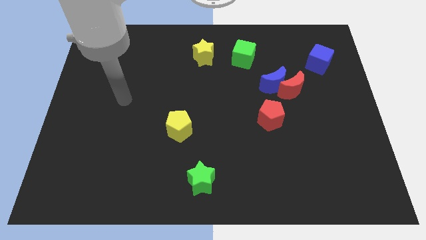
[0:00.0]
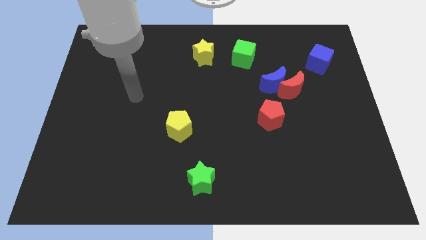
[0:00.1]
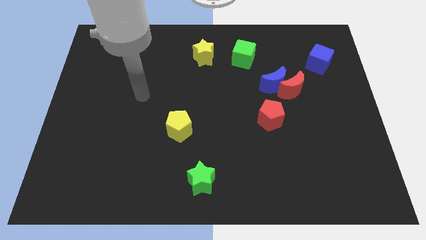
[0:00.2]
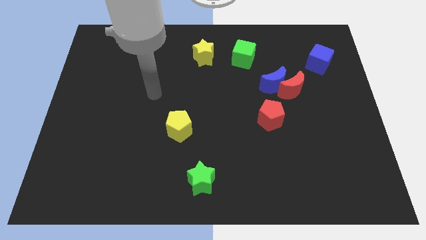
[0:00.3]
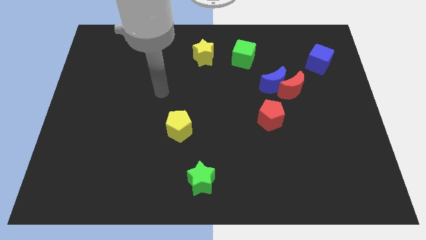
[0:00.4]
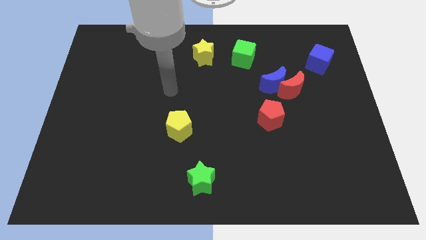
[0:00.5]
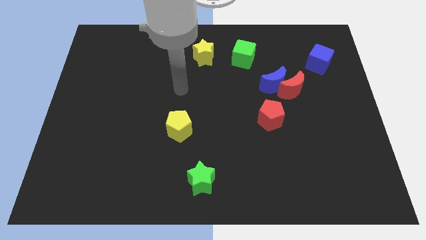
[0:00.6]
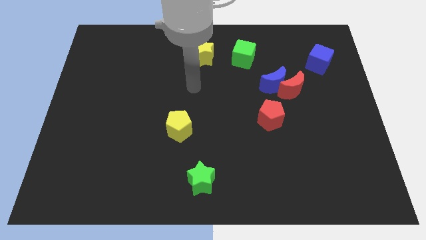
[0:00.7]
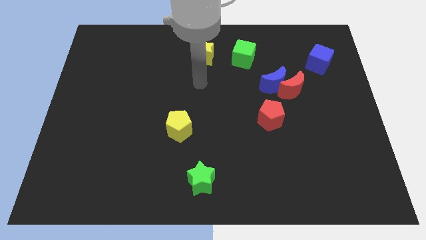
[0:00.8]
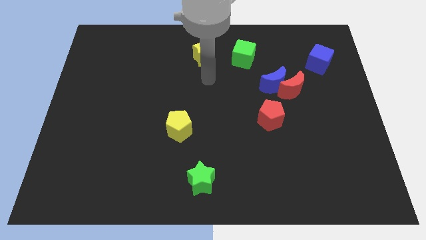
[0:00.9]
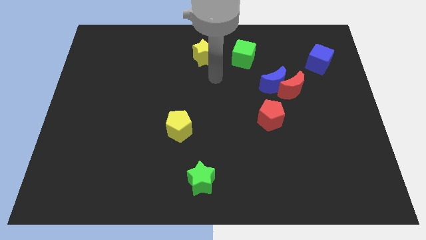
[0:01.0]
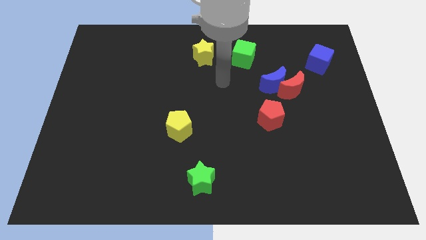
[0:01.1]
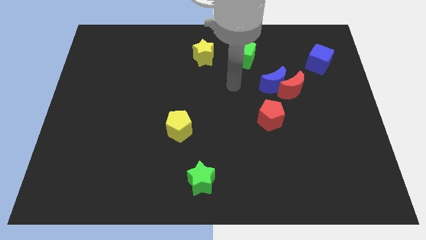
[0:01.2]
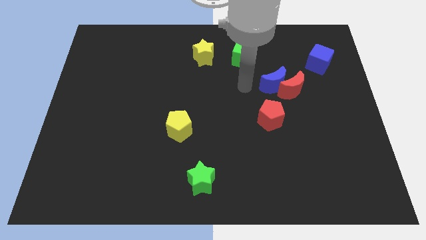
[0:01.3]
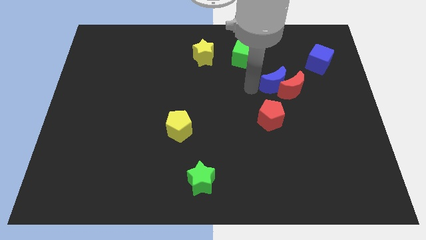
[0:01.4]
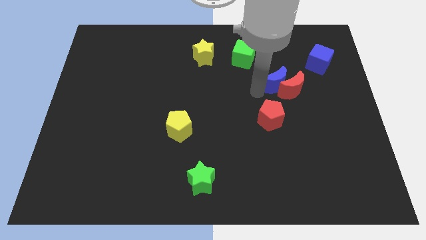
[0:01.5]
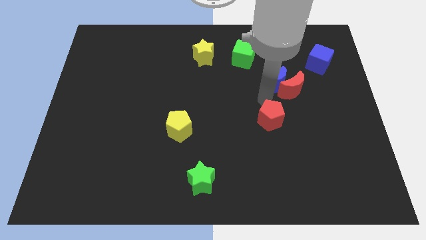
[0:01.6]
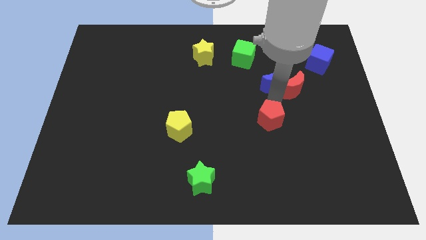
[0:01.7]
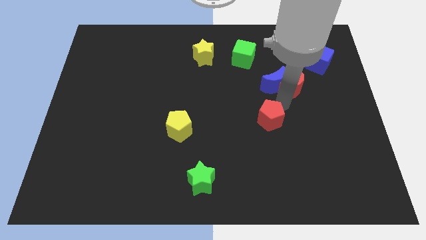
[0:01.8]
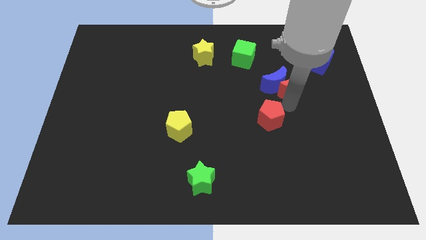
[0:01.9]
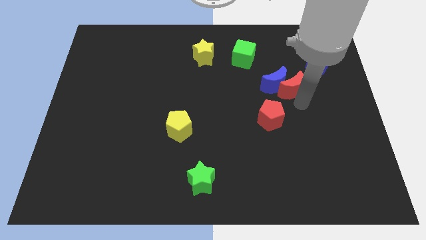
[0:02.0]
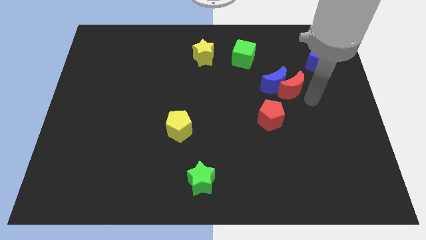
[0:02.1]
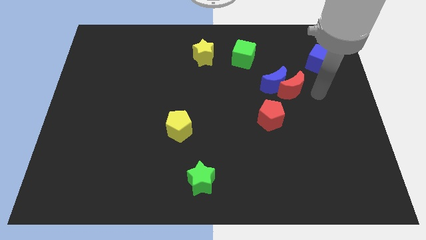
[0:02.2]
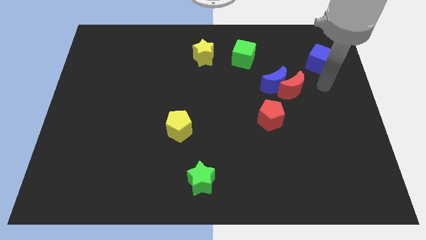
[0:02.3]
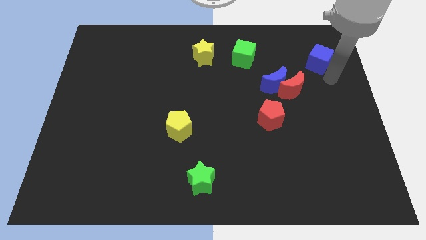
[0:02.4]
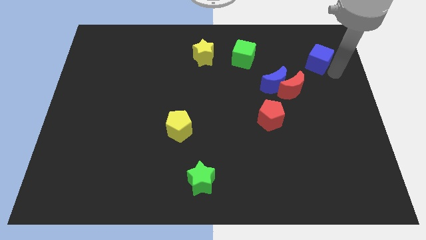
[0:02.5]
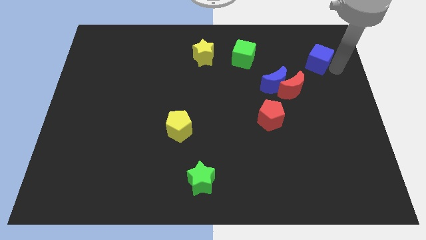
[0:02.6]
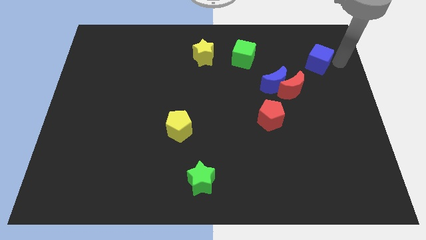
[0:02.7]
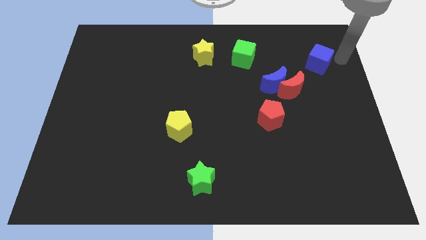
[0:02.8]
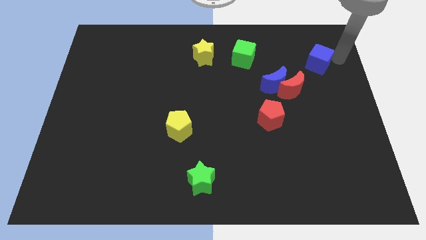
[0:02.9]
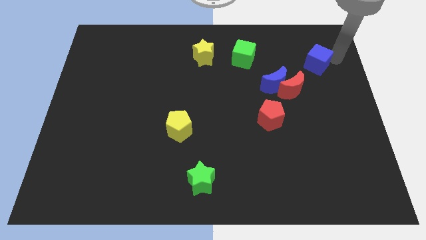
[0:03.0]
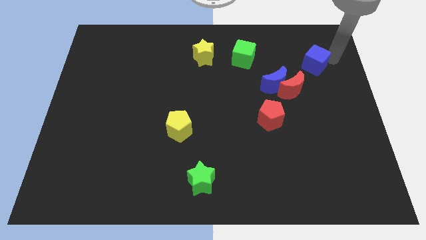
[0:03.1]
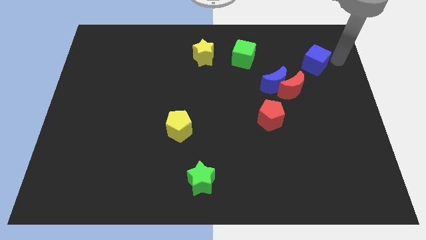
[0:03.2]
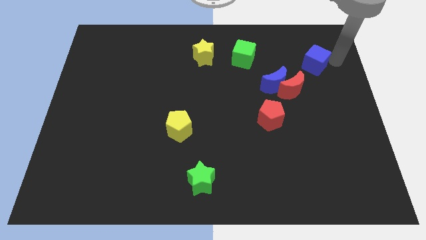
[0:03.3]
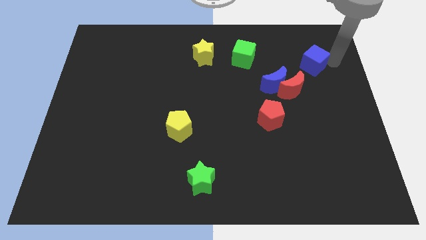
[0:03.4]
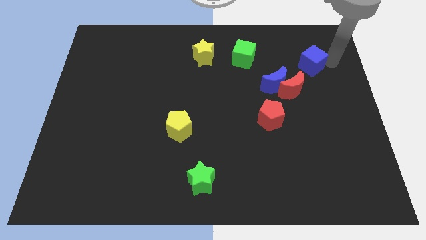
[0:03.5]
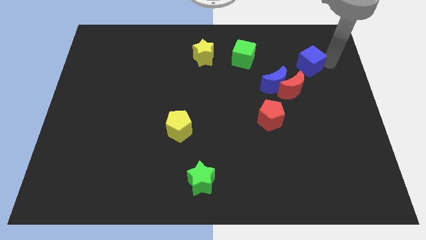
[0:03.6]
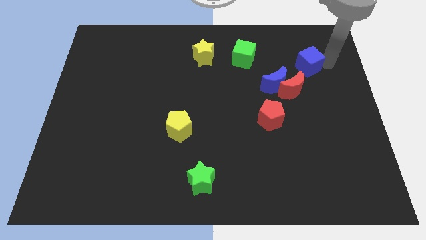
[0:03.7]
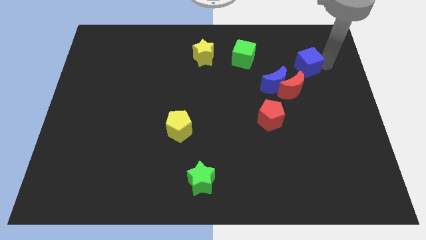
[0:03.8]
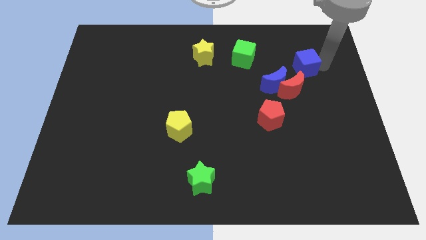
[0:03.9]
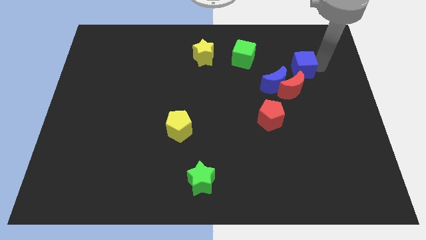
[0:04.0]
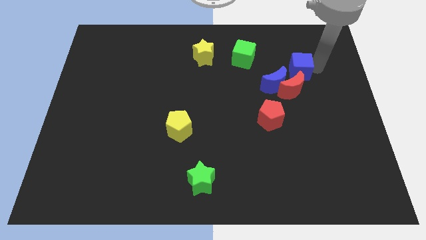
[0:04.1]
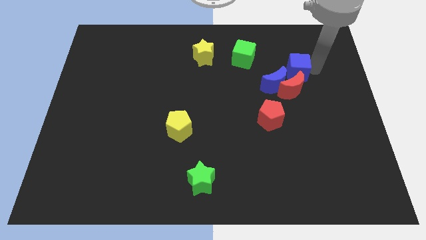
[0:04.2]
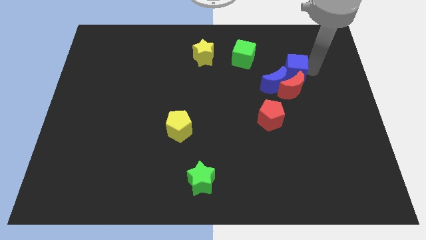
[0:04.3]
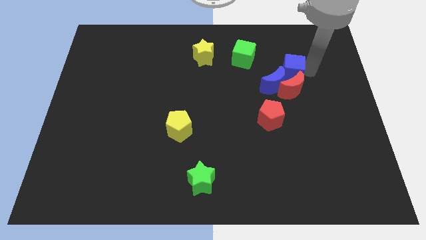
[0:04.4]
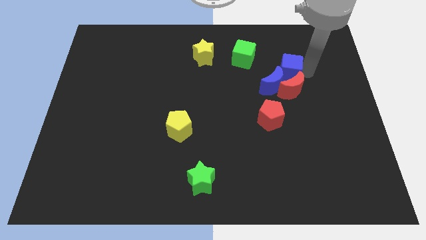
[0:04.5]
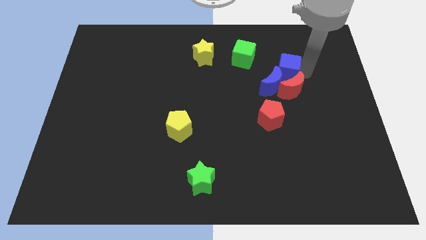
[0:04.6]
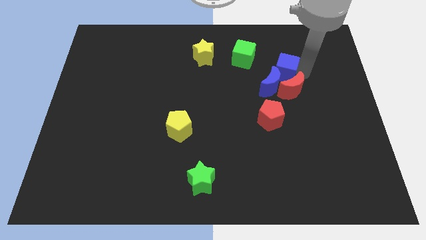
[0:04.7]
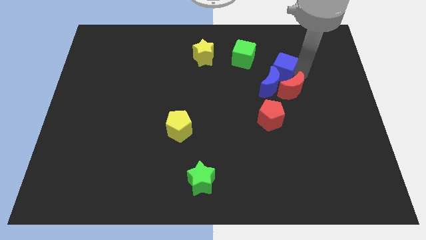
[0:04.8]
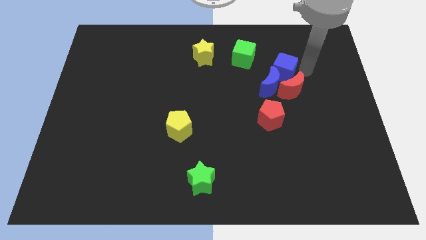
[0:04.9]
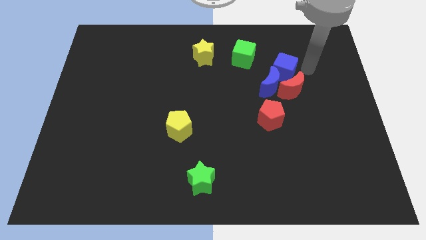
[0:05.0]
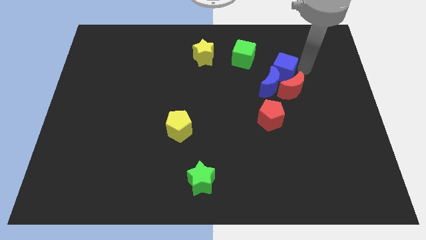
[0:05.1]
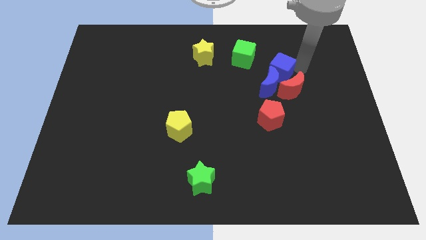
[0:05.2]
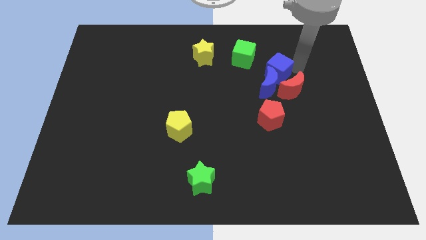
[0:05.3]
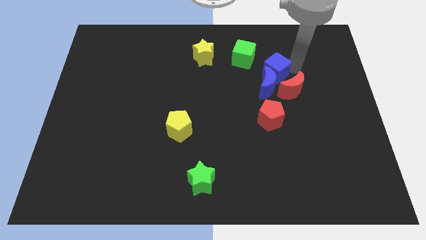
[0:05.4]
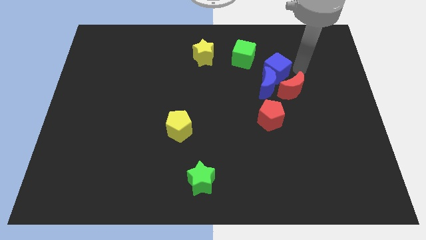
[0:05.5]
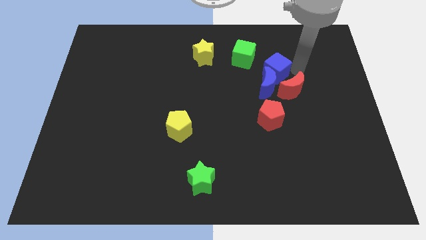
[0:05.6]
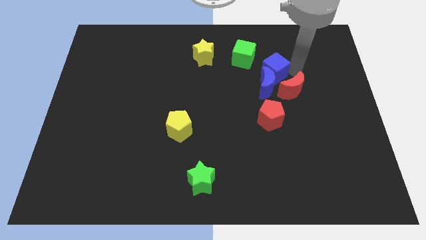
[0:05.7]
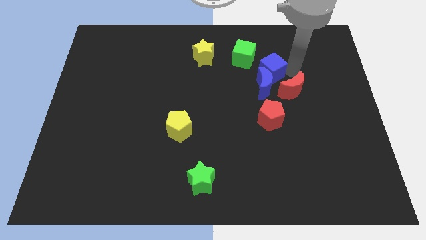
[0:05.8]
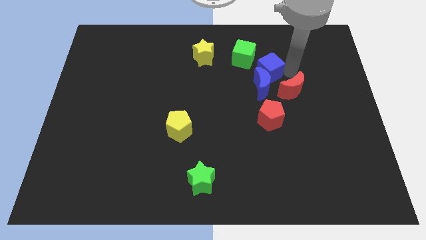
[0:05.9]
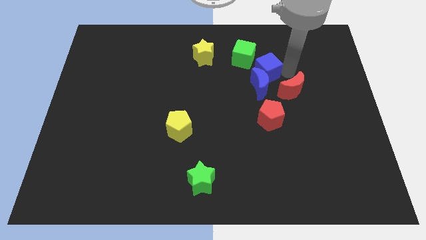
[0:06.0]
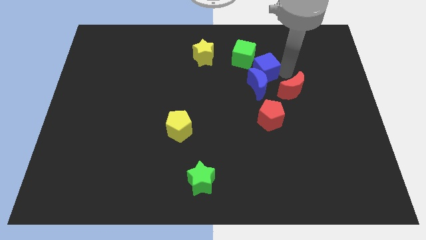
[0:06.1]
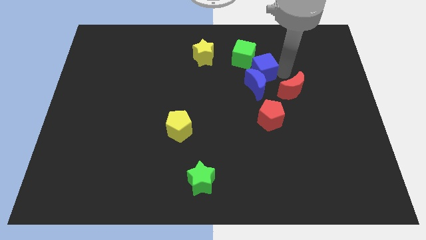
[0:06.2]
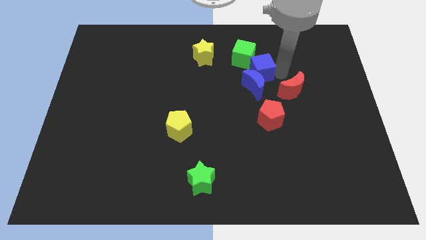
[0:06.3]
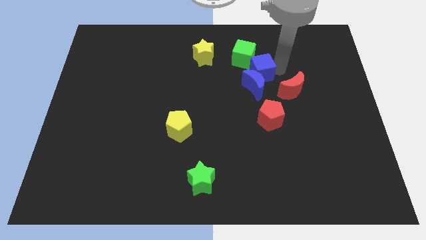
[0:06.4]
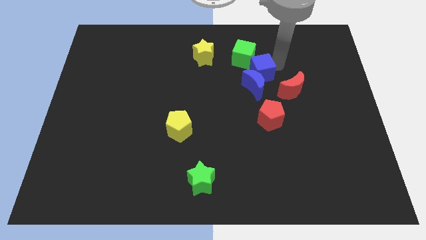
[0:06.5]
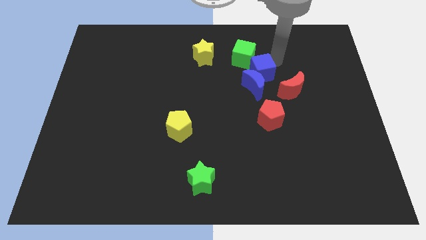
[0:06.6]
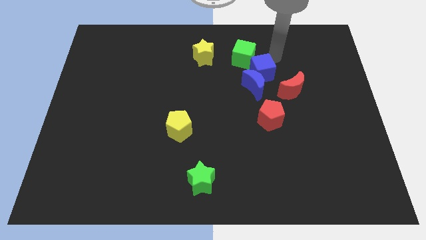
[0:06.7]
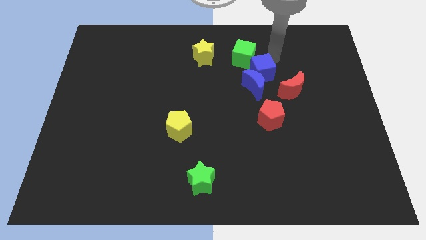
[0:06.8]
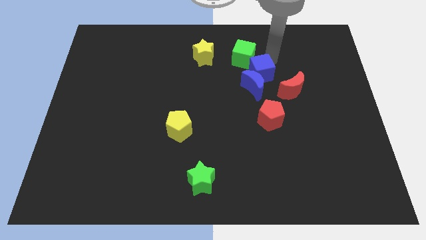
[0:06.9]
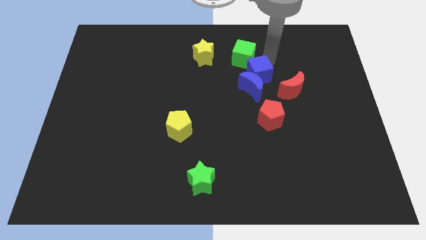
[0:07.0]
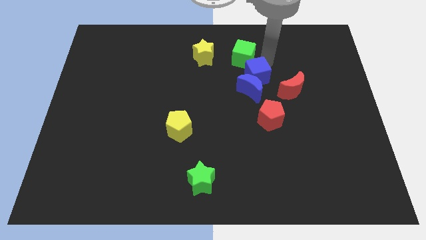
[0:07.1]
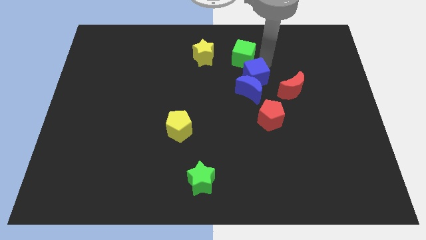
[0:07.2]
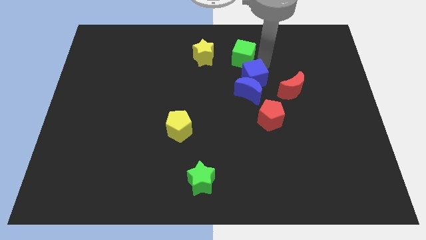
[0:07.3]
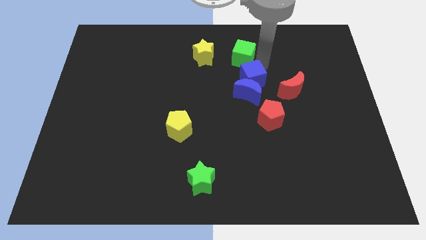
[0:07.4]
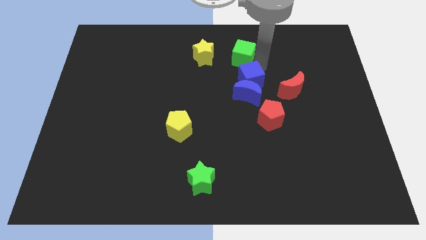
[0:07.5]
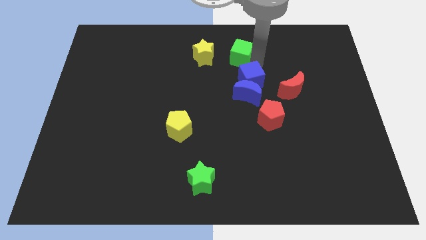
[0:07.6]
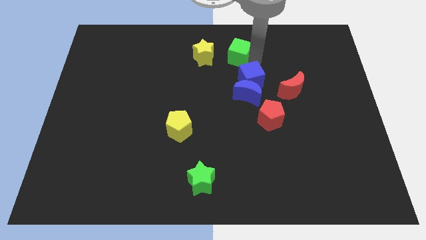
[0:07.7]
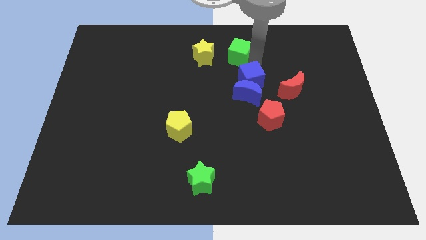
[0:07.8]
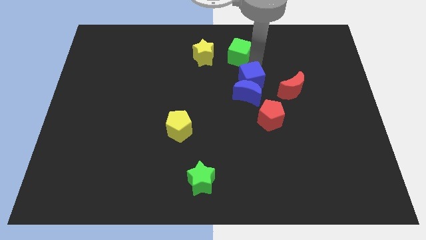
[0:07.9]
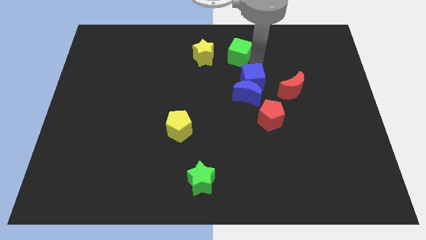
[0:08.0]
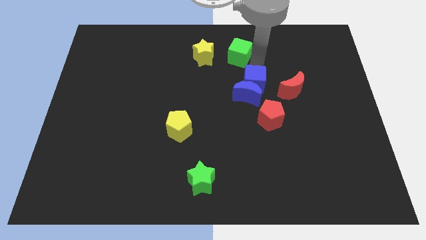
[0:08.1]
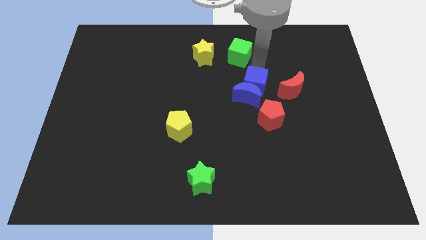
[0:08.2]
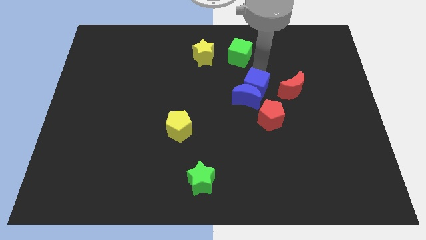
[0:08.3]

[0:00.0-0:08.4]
move the blue cube to the top left side of the red pentagon
